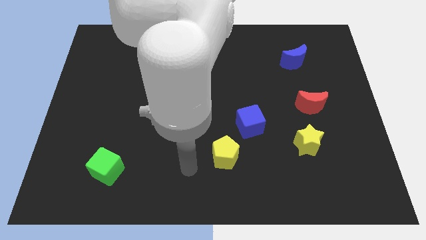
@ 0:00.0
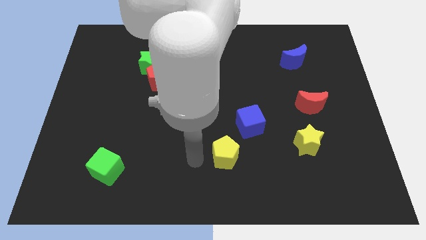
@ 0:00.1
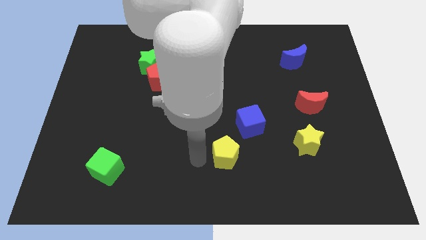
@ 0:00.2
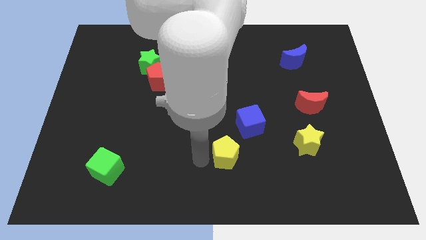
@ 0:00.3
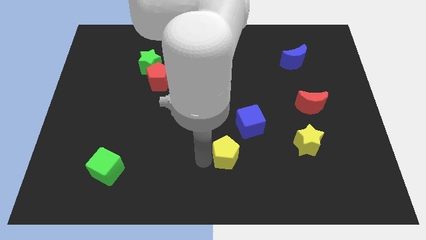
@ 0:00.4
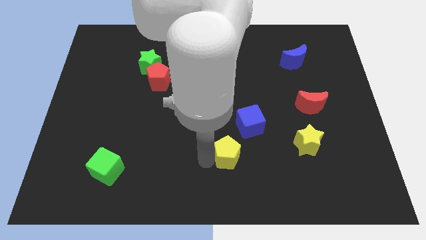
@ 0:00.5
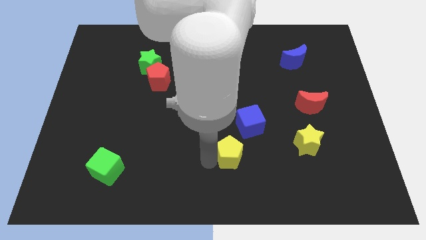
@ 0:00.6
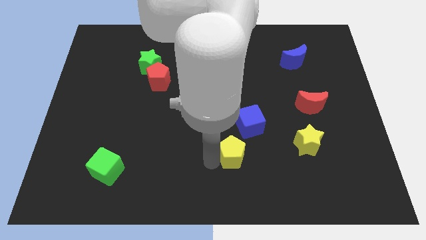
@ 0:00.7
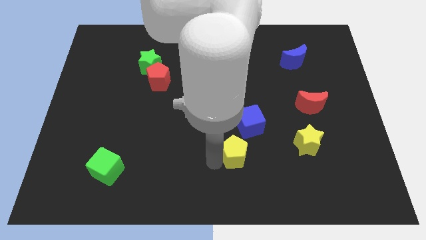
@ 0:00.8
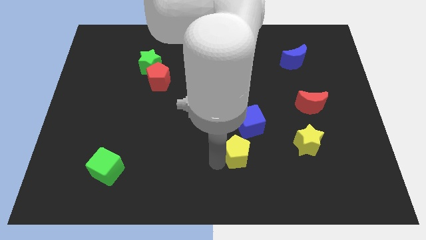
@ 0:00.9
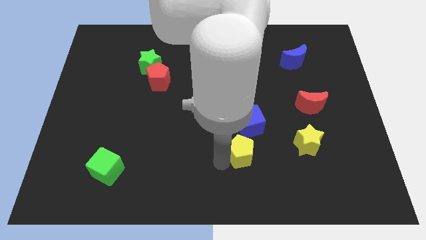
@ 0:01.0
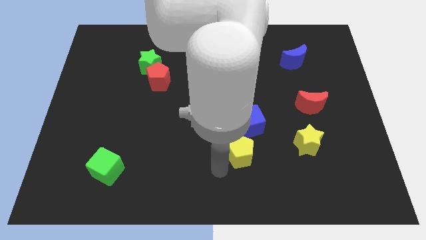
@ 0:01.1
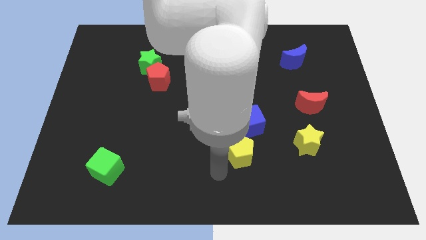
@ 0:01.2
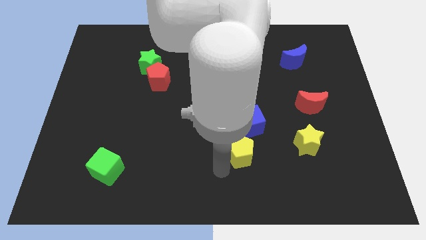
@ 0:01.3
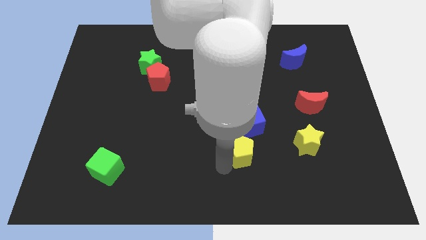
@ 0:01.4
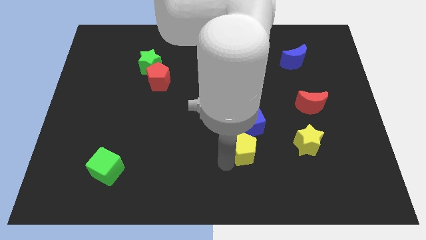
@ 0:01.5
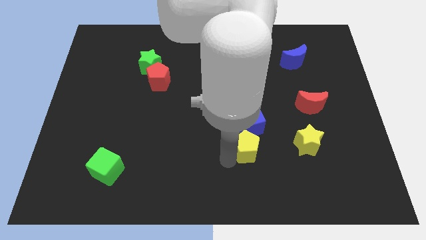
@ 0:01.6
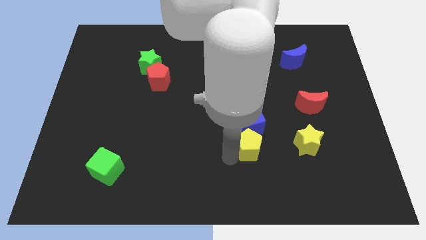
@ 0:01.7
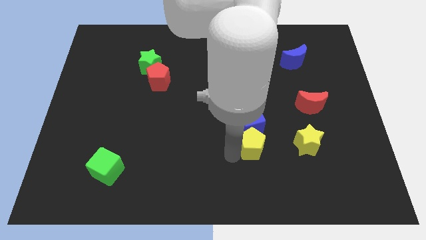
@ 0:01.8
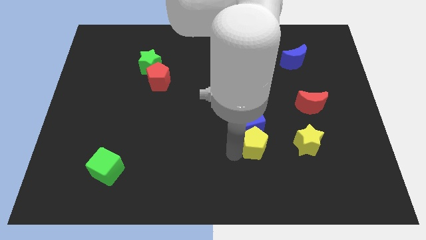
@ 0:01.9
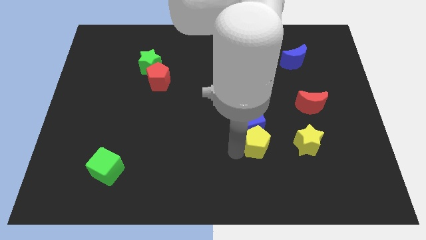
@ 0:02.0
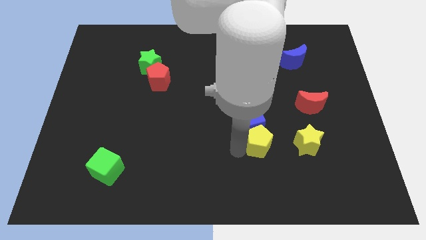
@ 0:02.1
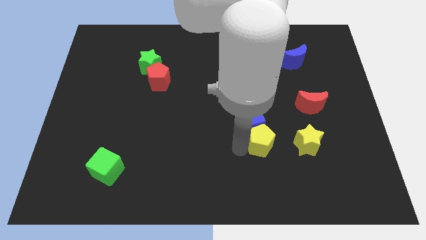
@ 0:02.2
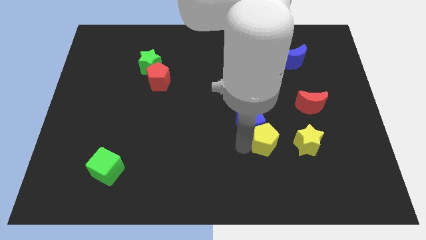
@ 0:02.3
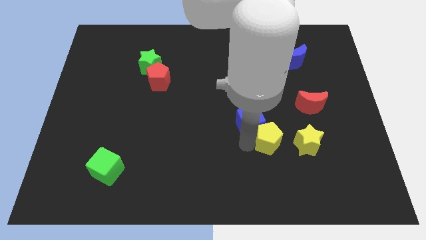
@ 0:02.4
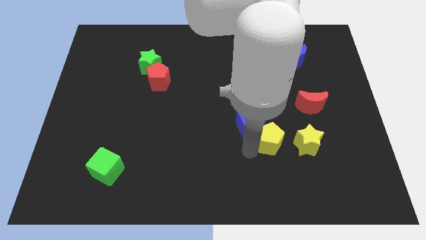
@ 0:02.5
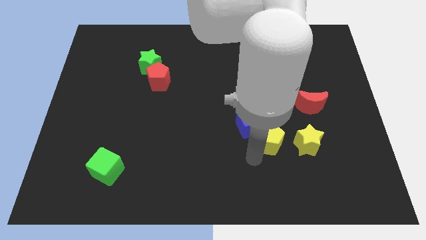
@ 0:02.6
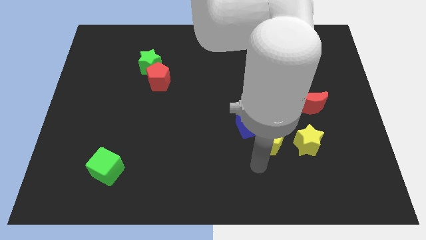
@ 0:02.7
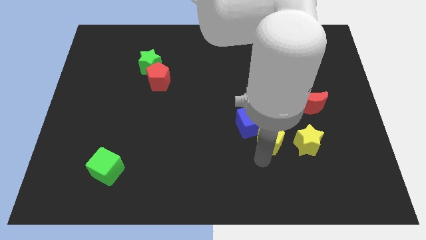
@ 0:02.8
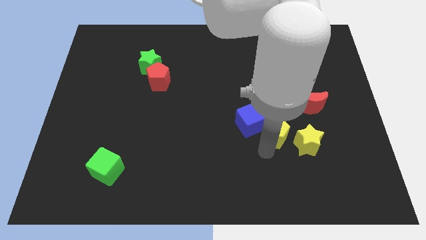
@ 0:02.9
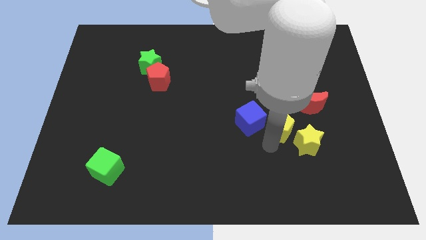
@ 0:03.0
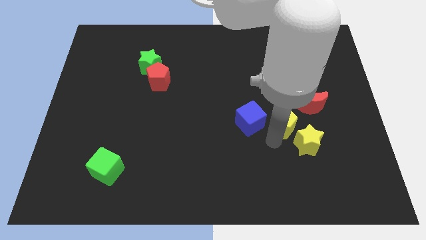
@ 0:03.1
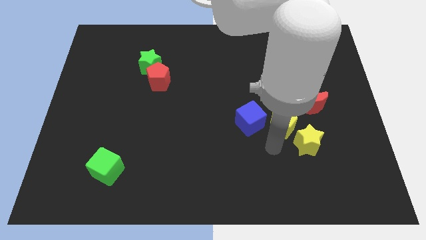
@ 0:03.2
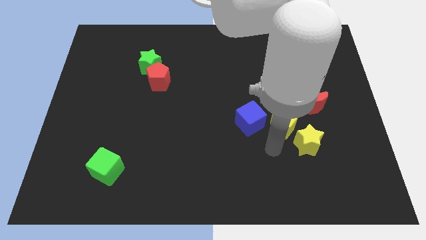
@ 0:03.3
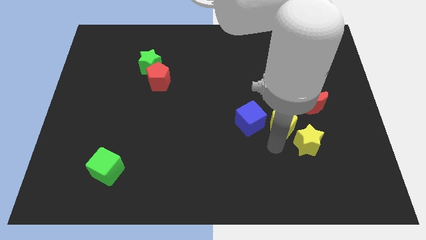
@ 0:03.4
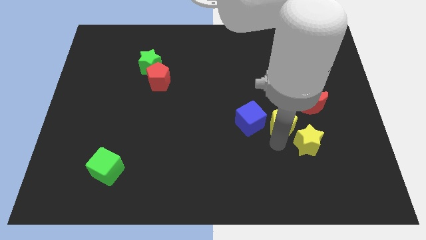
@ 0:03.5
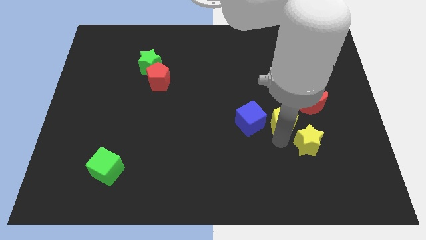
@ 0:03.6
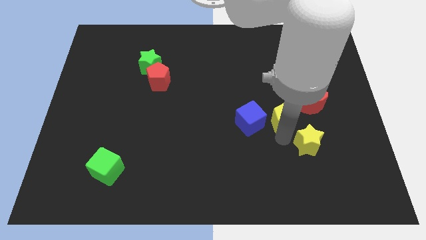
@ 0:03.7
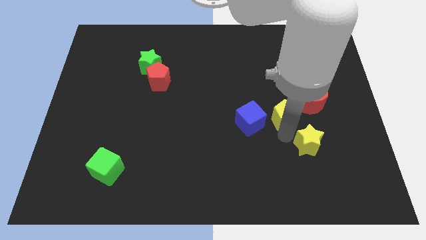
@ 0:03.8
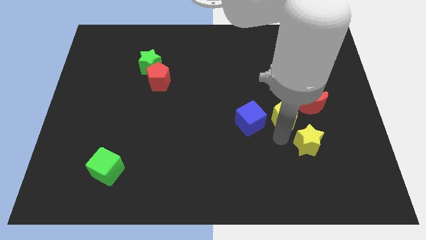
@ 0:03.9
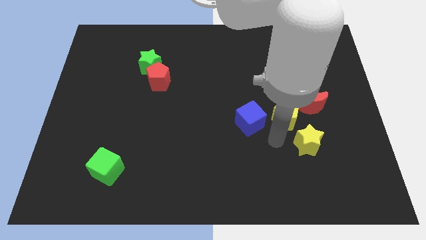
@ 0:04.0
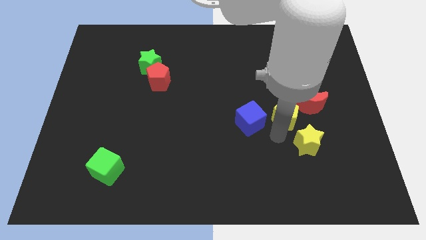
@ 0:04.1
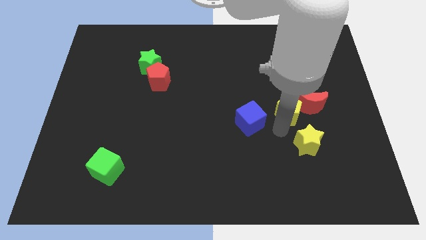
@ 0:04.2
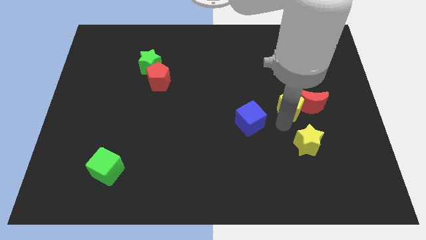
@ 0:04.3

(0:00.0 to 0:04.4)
push the yellow pentagon up and to the right diagonally

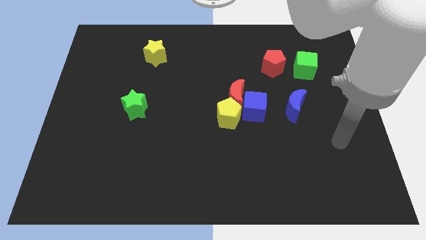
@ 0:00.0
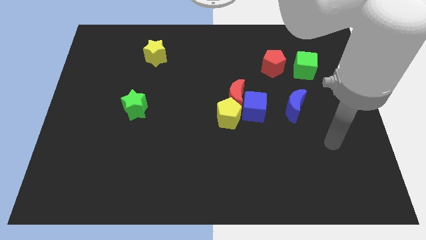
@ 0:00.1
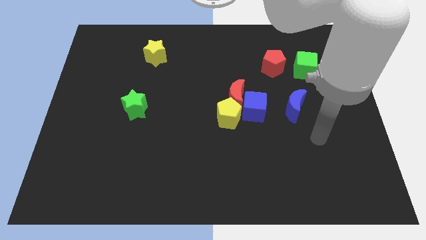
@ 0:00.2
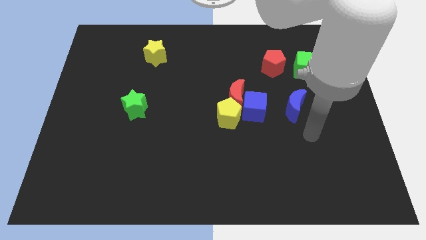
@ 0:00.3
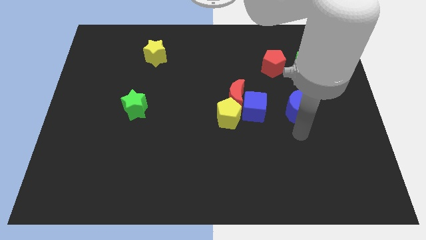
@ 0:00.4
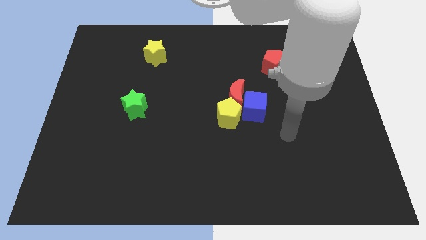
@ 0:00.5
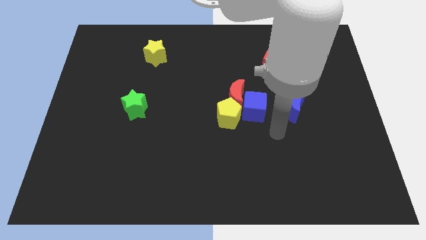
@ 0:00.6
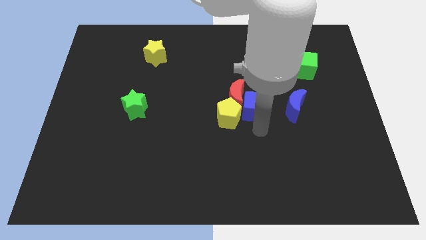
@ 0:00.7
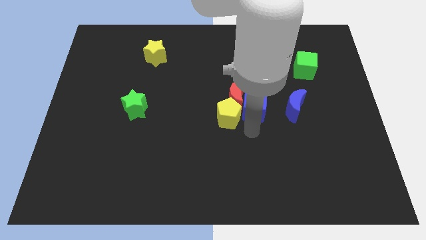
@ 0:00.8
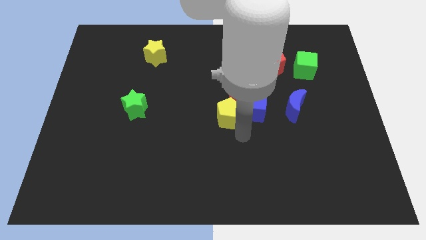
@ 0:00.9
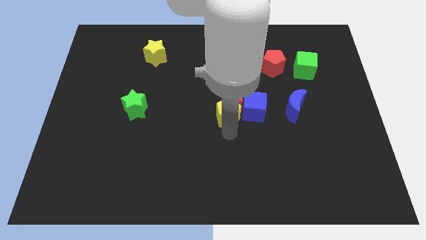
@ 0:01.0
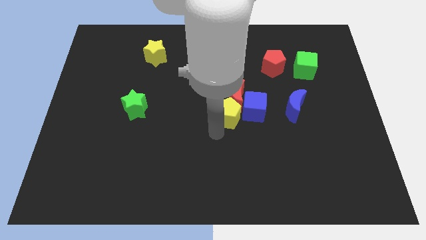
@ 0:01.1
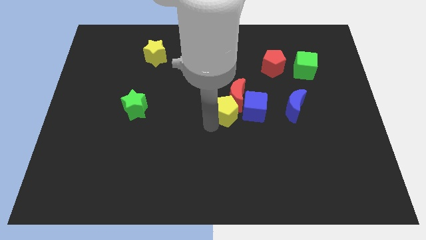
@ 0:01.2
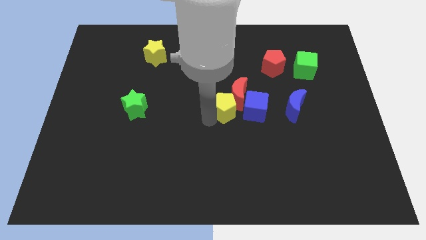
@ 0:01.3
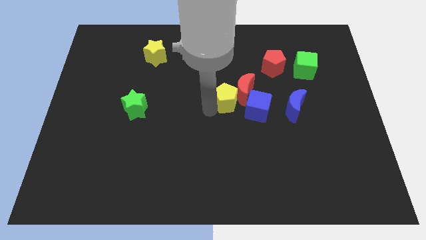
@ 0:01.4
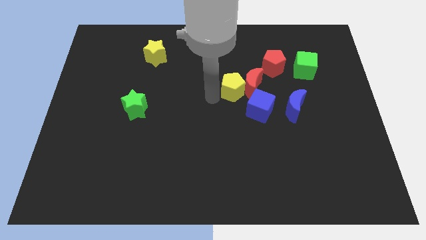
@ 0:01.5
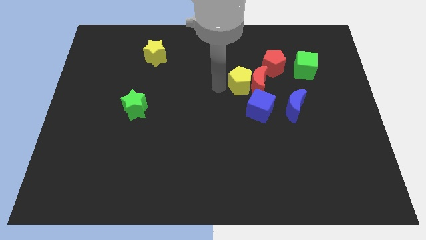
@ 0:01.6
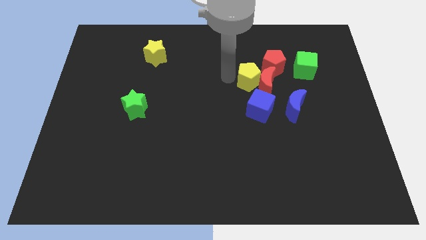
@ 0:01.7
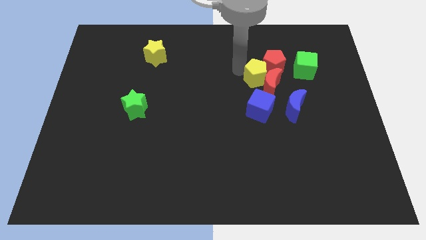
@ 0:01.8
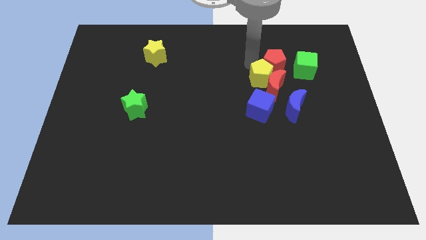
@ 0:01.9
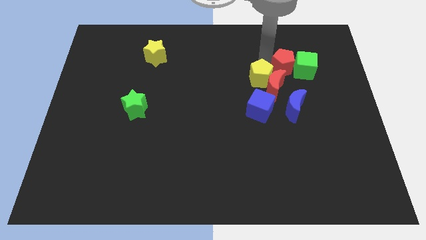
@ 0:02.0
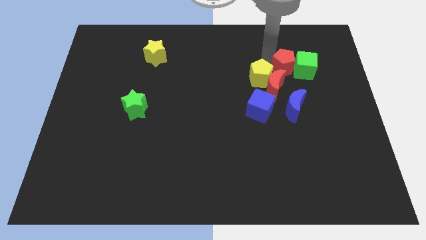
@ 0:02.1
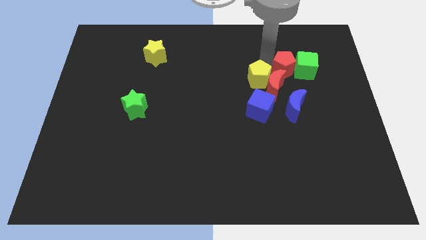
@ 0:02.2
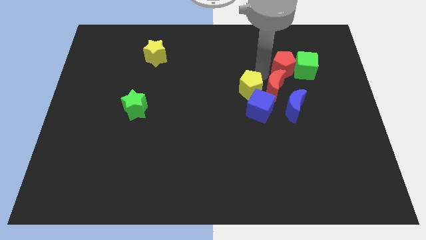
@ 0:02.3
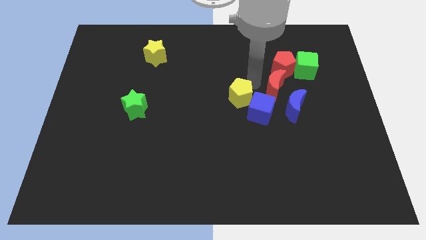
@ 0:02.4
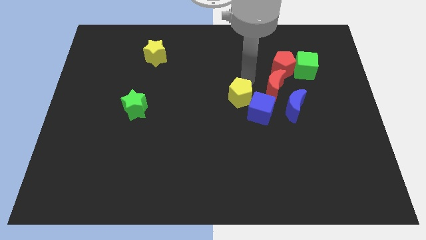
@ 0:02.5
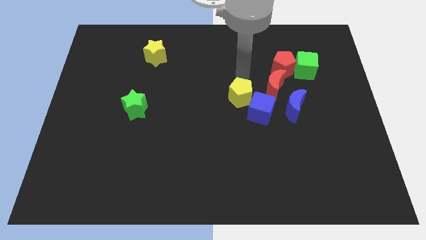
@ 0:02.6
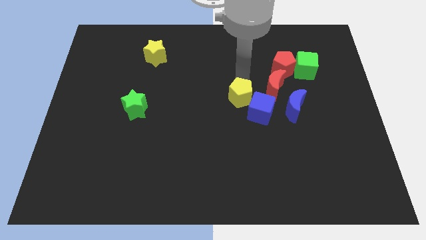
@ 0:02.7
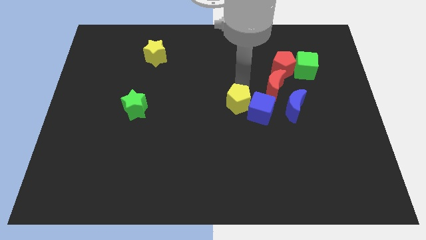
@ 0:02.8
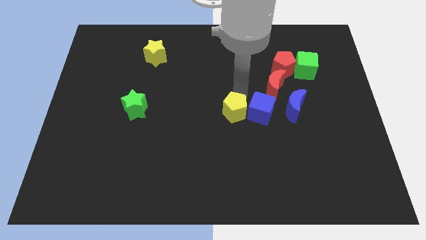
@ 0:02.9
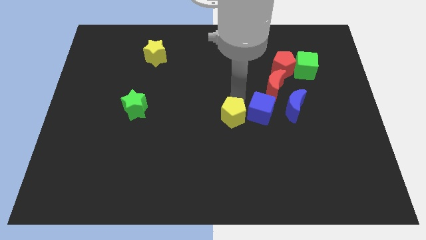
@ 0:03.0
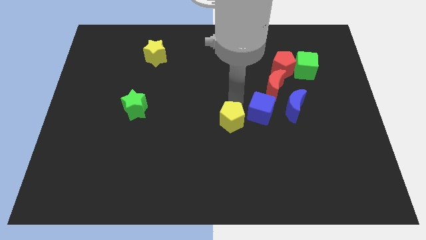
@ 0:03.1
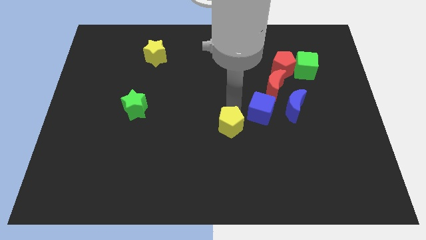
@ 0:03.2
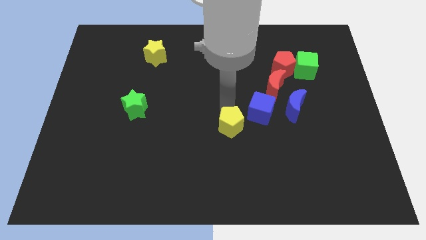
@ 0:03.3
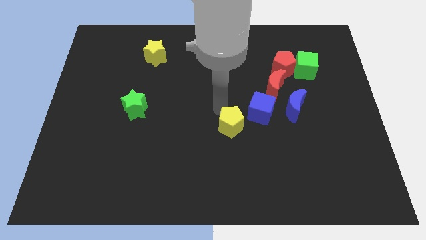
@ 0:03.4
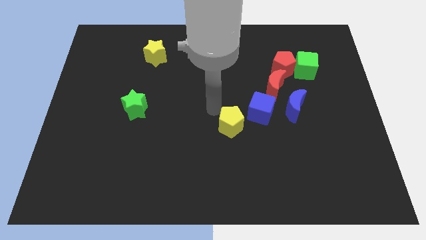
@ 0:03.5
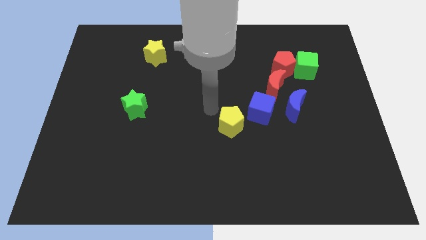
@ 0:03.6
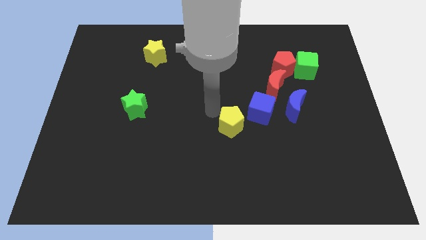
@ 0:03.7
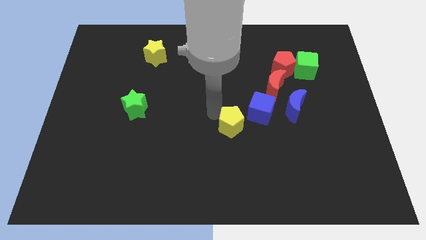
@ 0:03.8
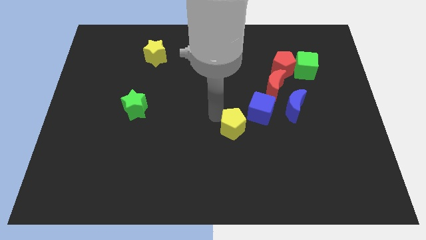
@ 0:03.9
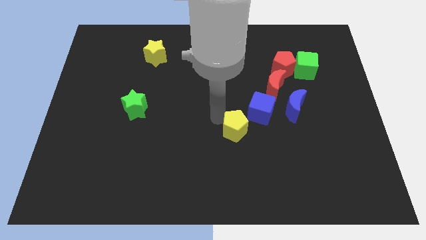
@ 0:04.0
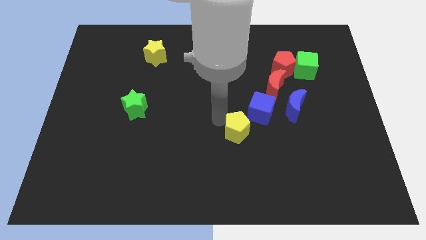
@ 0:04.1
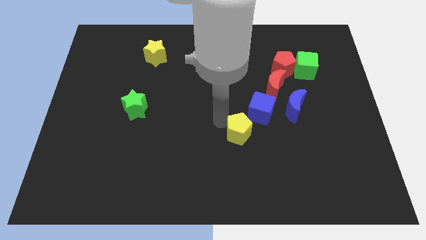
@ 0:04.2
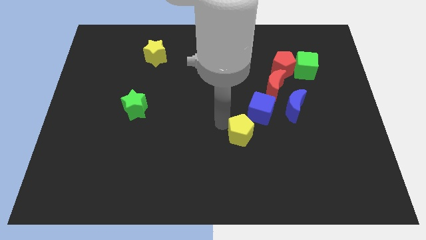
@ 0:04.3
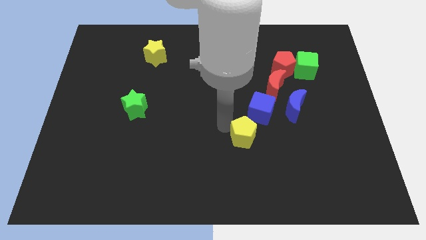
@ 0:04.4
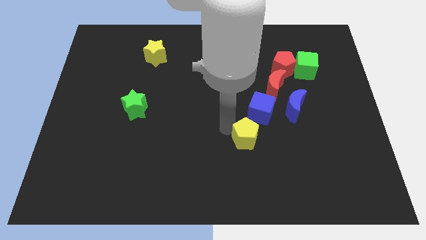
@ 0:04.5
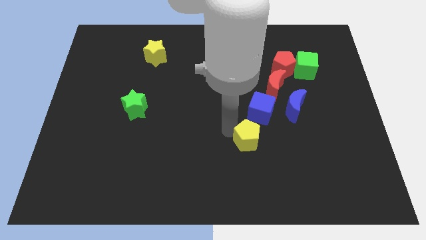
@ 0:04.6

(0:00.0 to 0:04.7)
slightly move the yellow pentagon diagonally downwards and right
